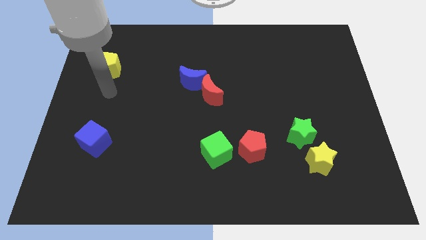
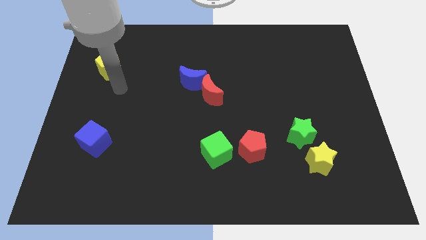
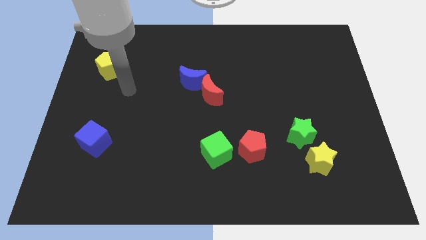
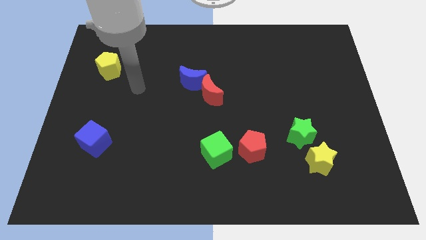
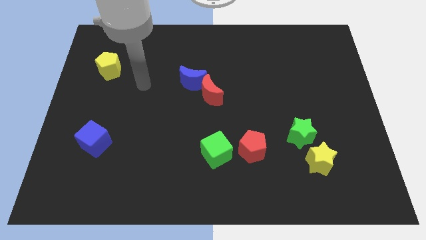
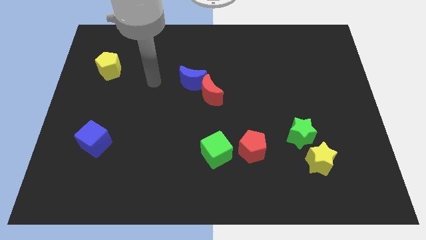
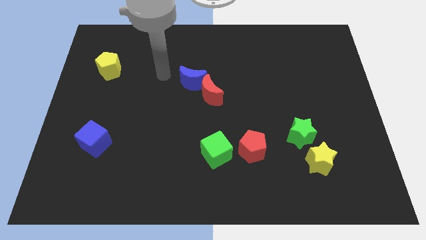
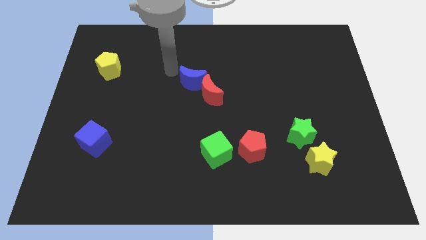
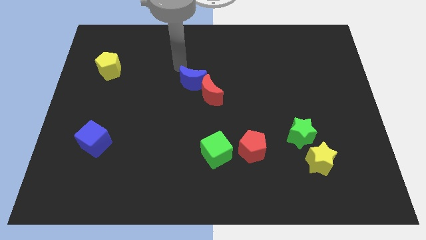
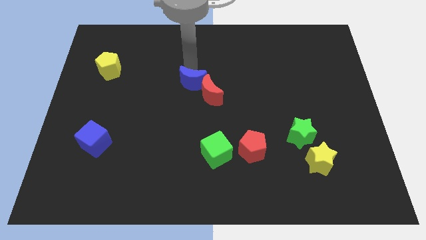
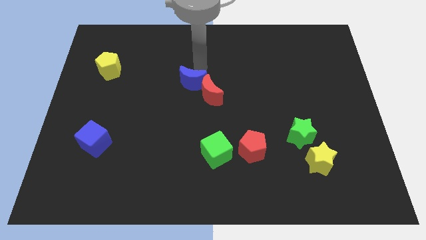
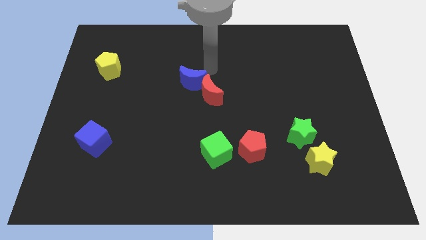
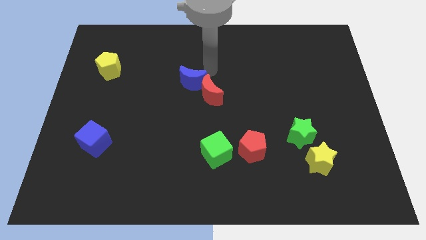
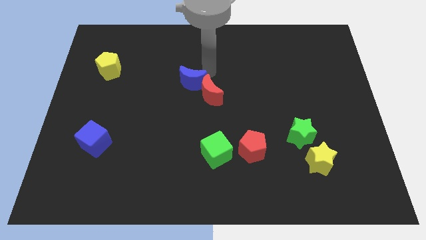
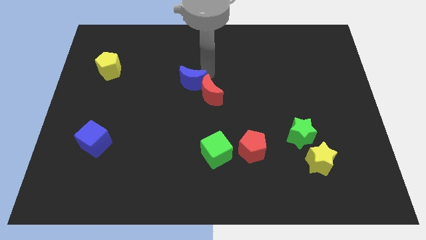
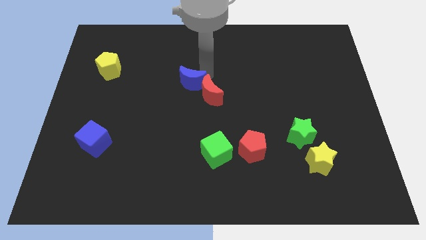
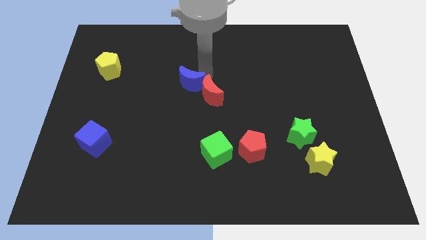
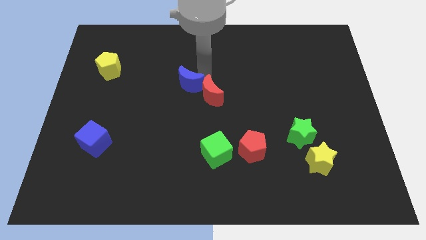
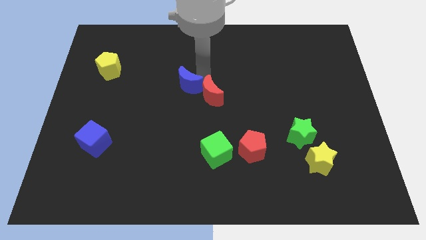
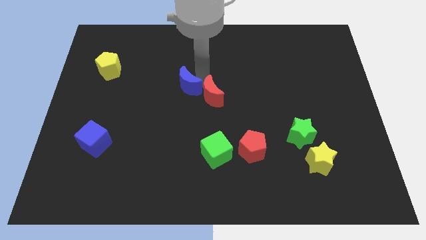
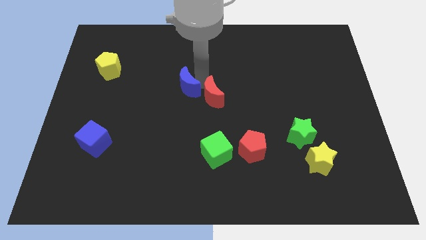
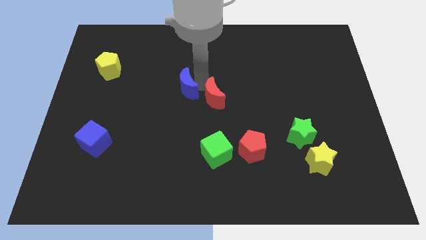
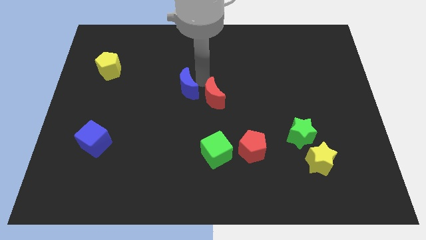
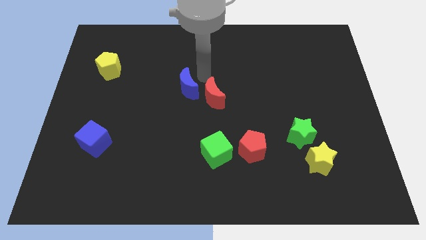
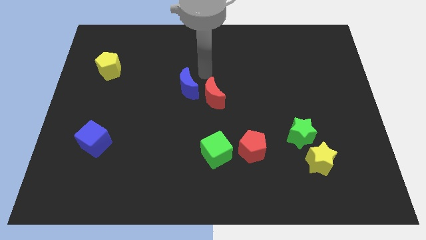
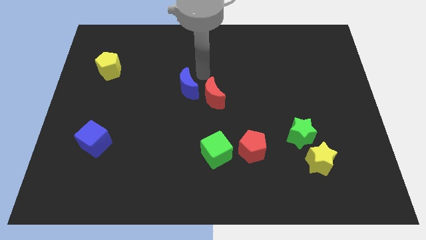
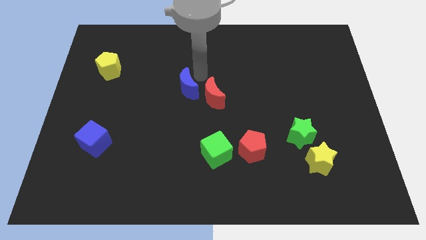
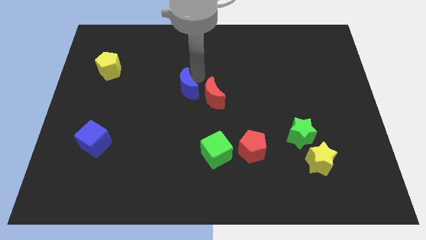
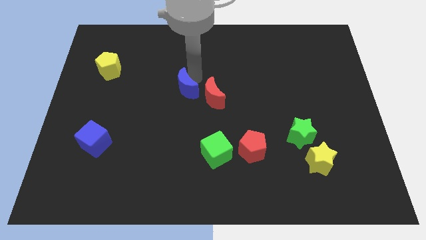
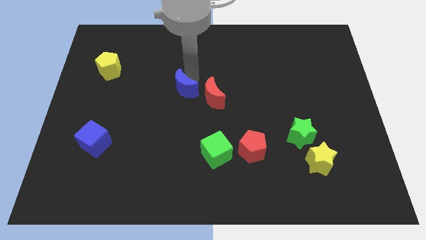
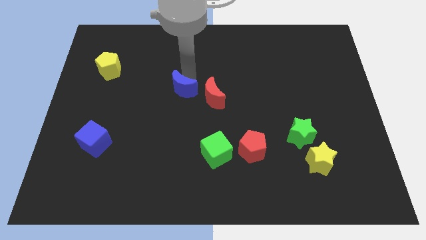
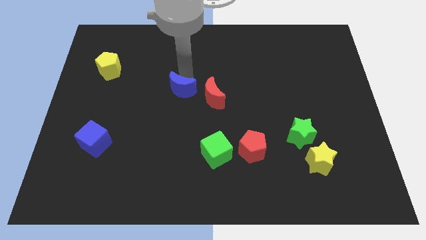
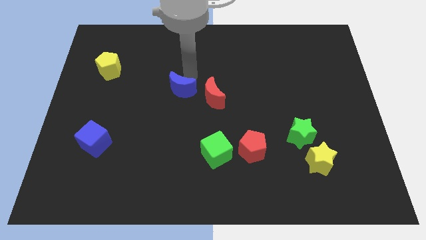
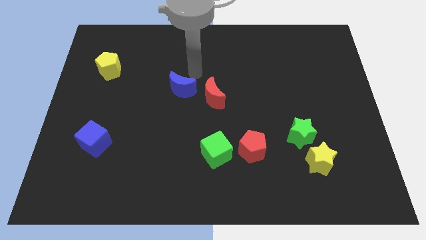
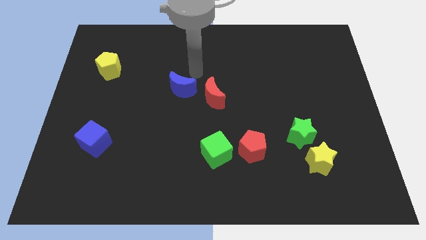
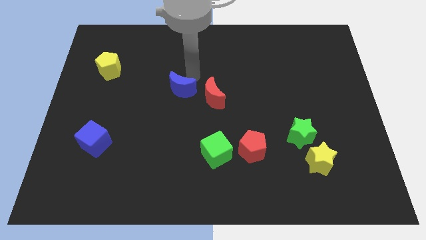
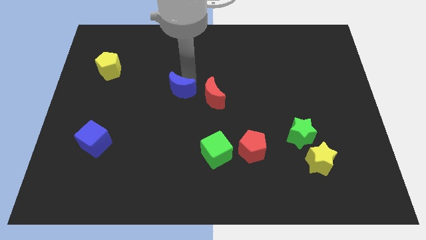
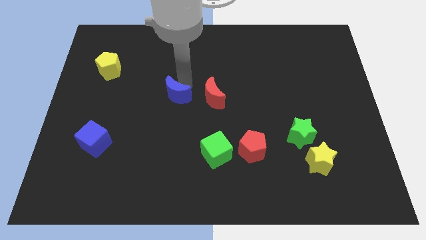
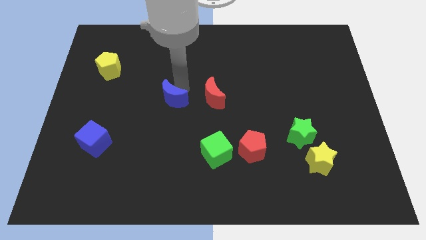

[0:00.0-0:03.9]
slide the blue moon downwards and then left slightly

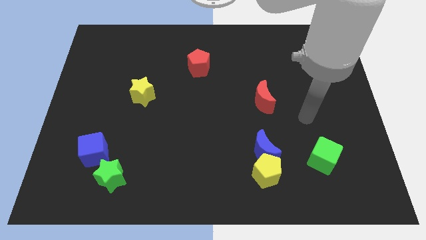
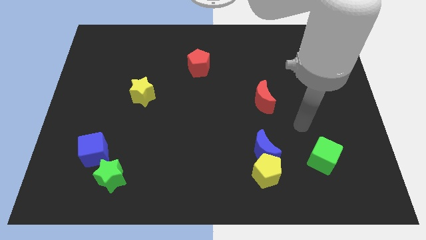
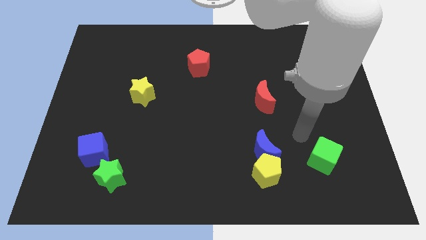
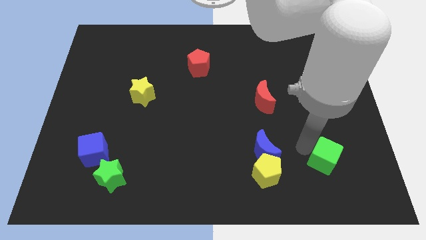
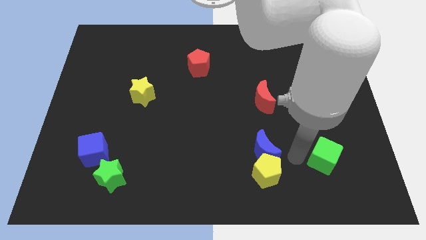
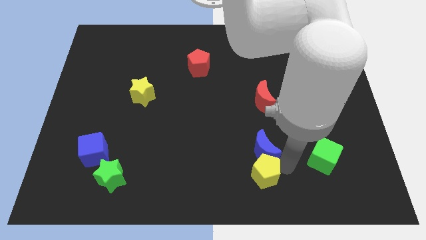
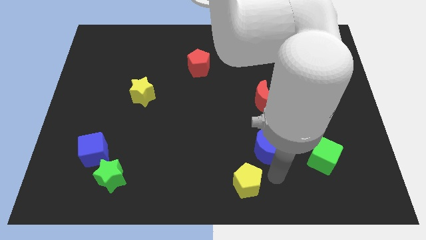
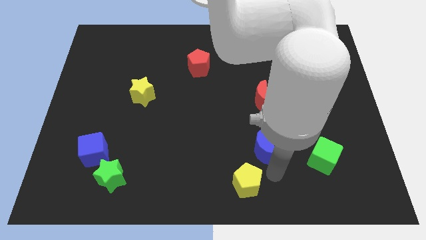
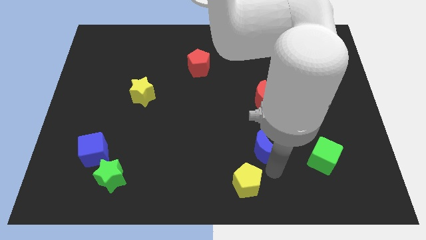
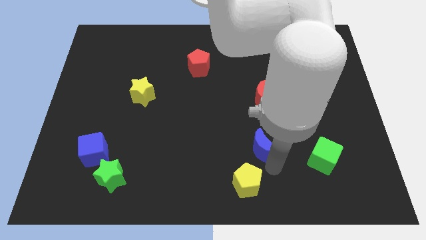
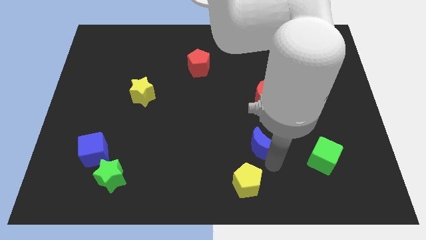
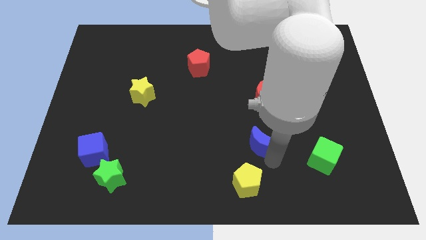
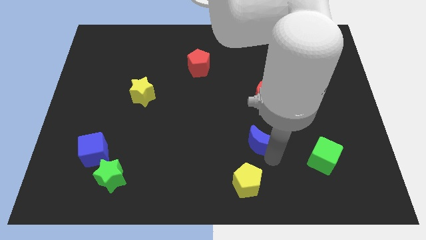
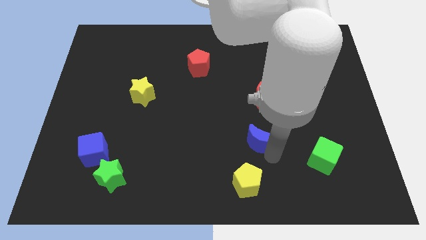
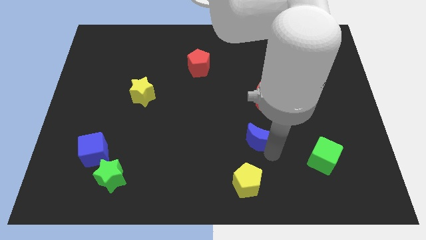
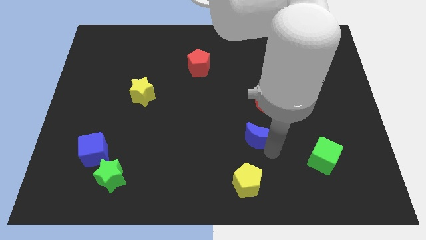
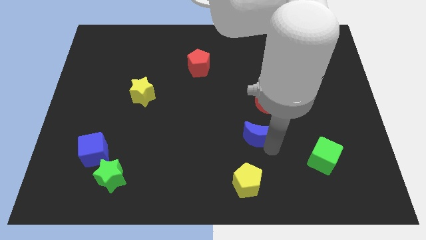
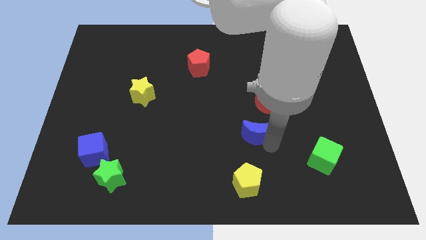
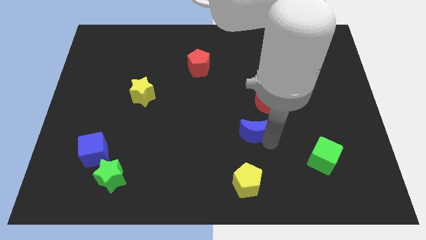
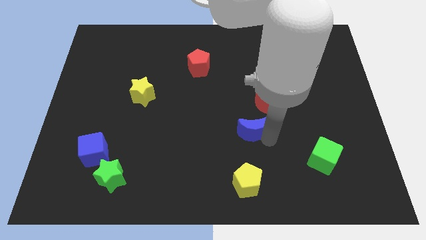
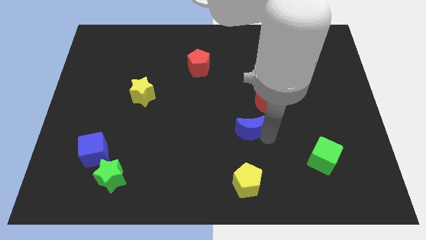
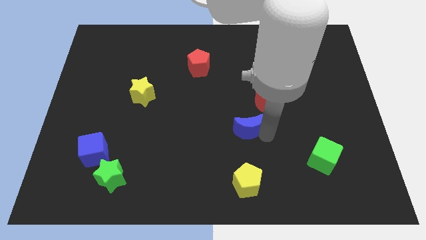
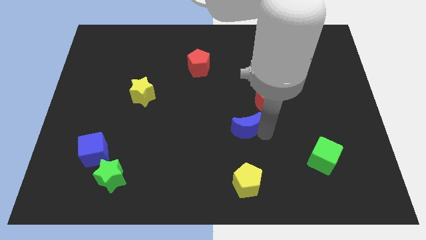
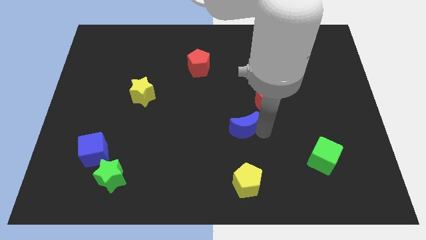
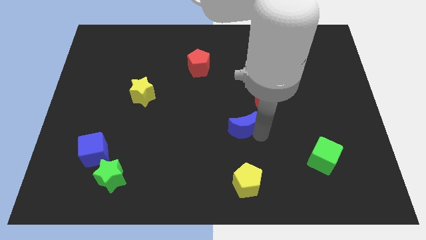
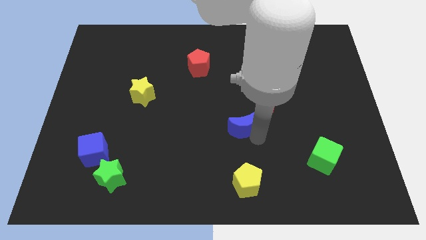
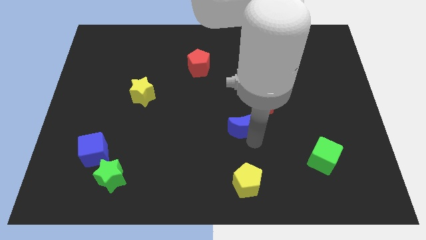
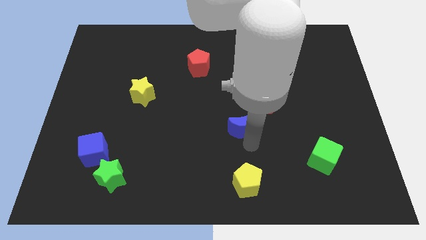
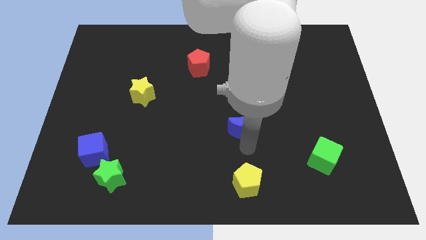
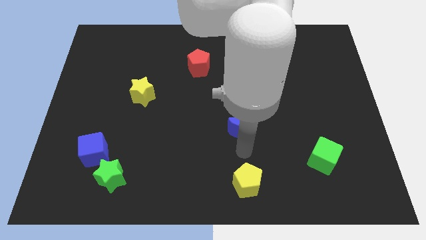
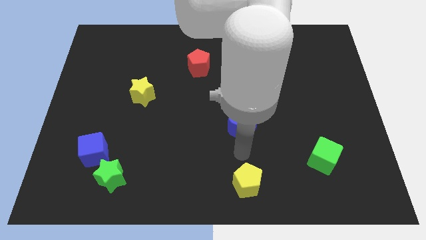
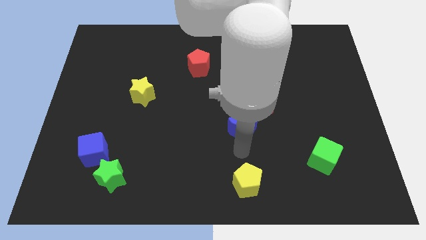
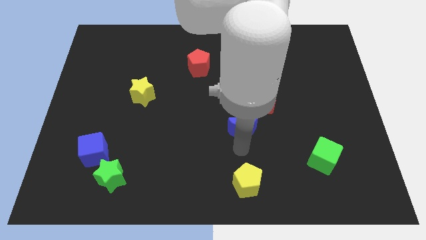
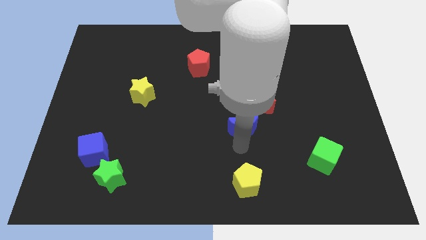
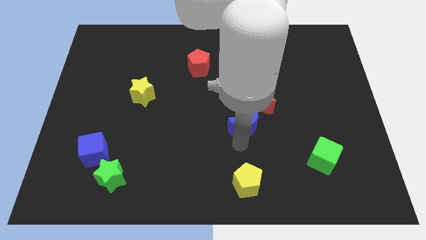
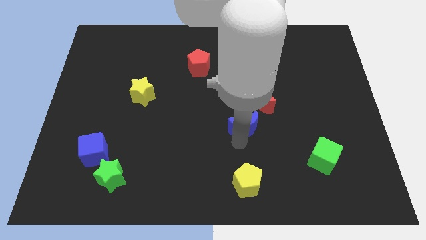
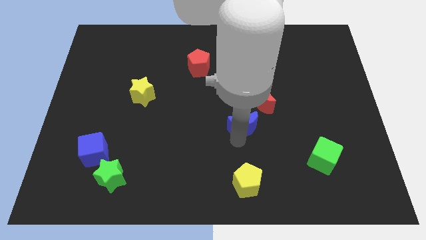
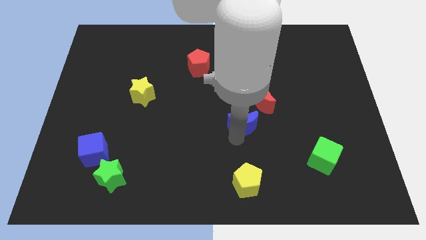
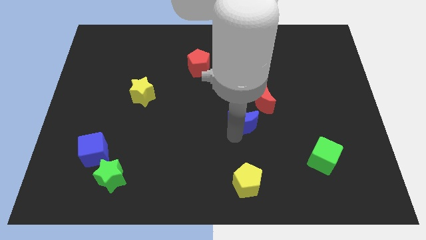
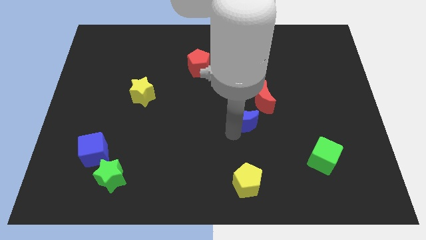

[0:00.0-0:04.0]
move the blue moon upwards slightly
